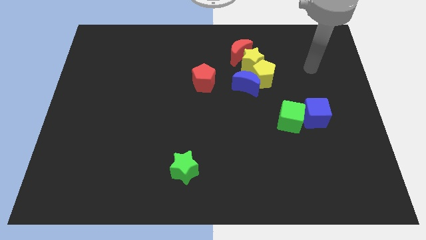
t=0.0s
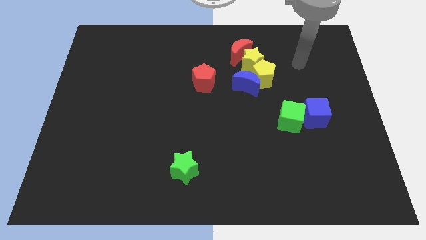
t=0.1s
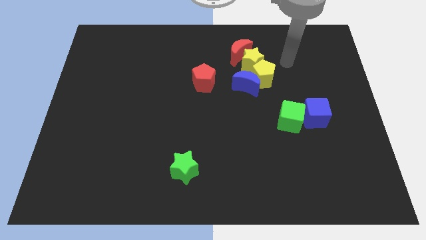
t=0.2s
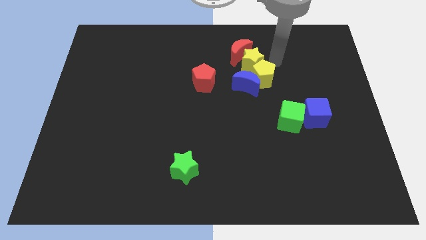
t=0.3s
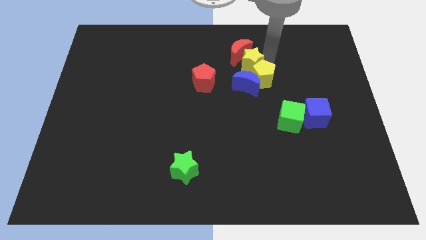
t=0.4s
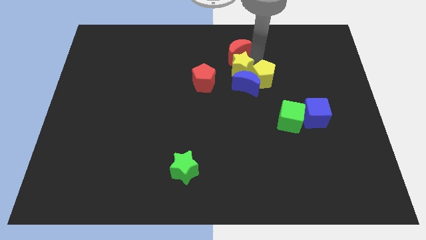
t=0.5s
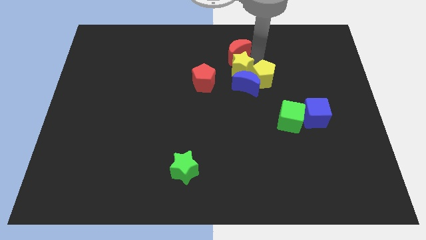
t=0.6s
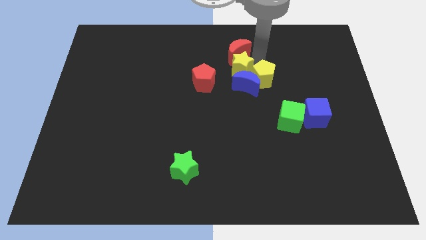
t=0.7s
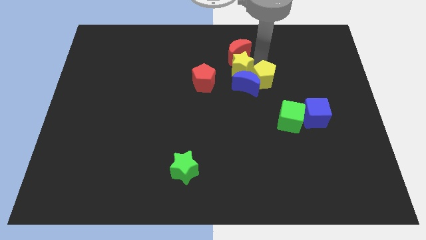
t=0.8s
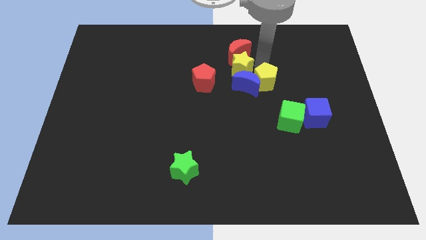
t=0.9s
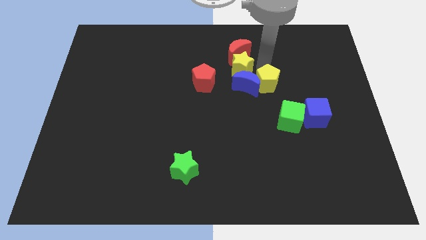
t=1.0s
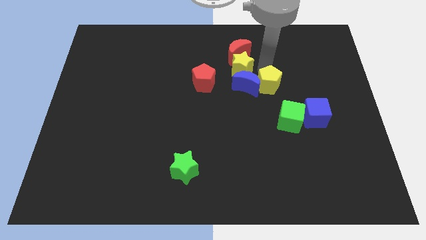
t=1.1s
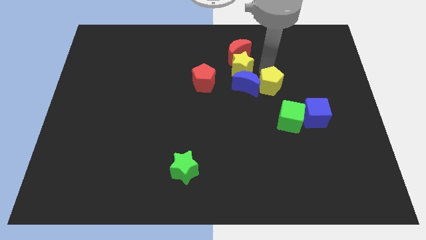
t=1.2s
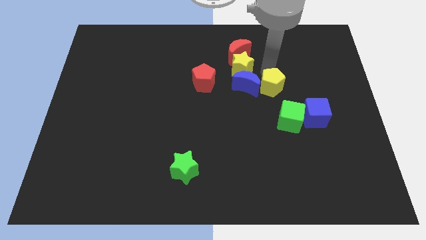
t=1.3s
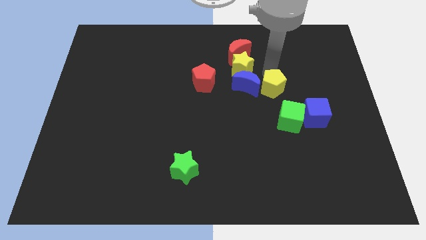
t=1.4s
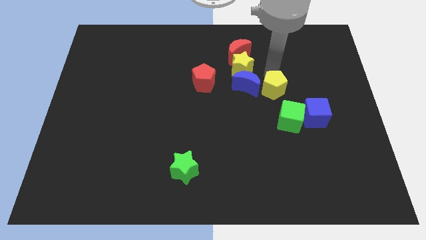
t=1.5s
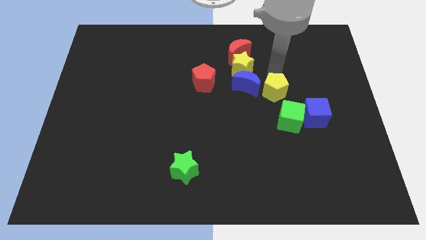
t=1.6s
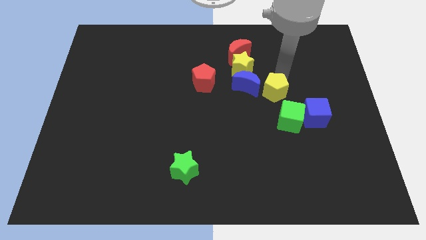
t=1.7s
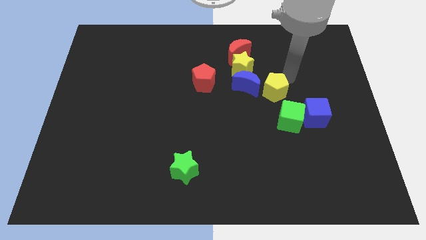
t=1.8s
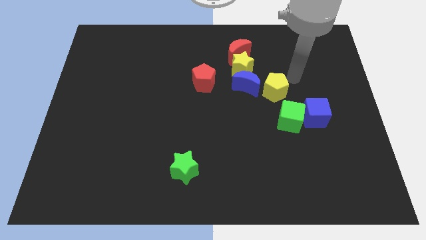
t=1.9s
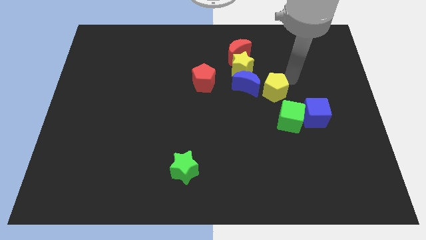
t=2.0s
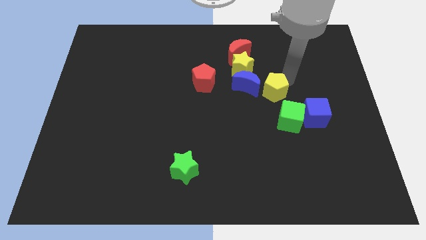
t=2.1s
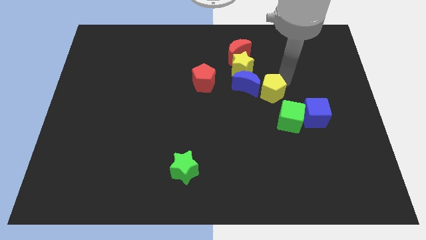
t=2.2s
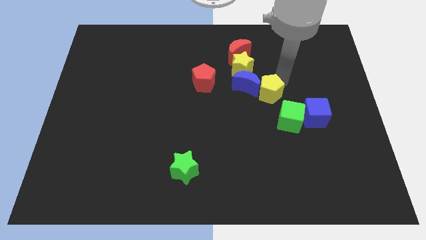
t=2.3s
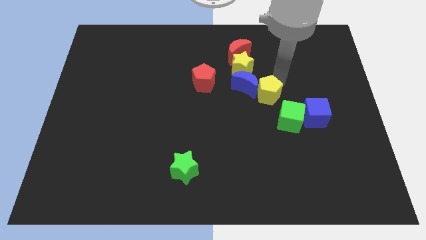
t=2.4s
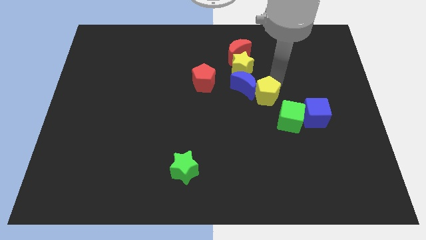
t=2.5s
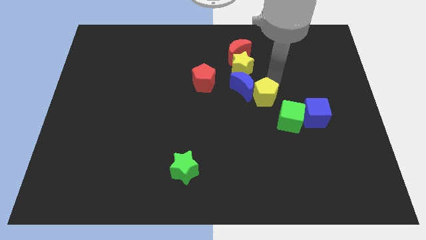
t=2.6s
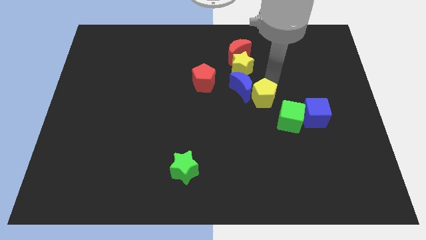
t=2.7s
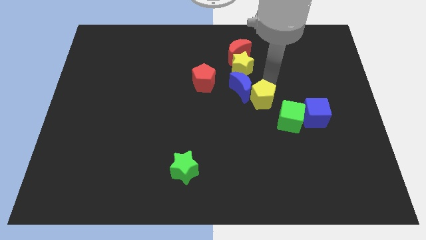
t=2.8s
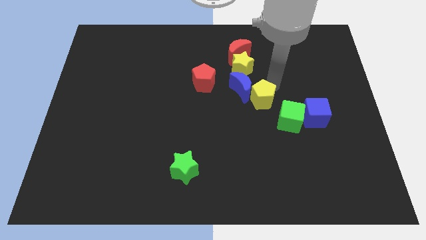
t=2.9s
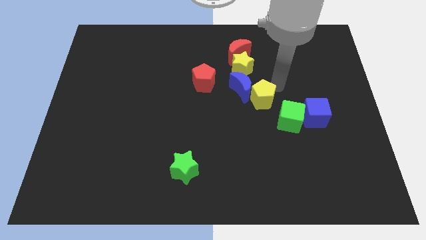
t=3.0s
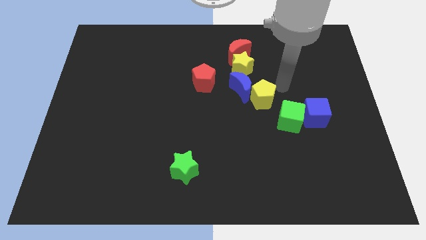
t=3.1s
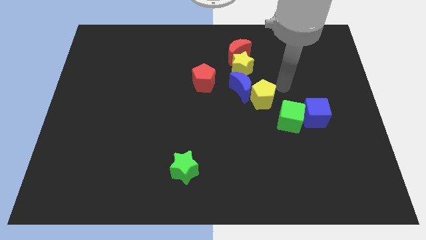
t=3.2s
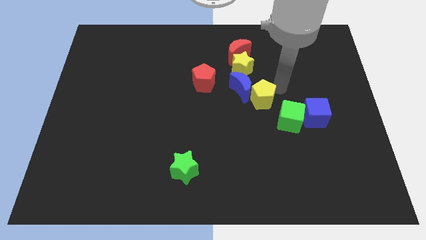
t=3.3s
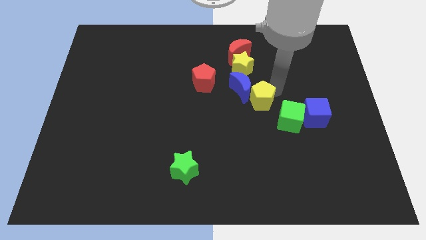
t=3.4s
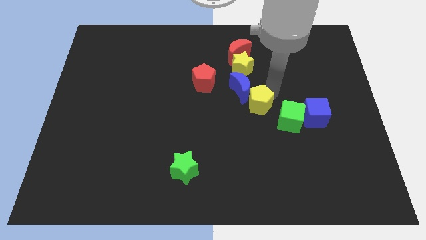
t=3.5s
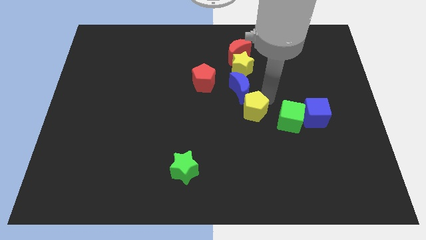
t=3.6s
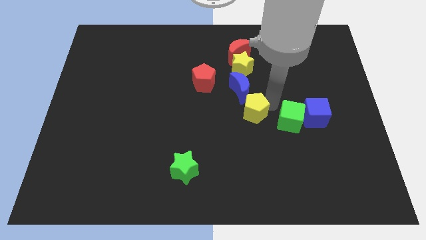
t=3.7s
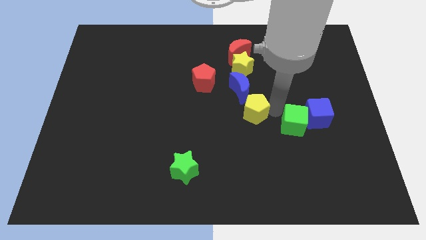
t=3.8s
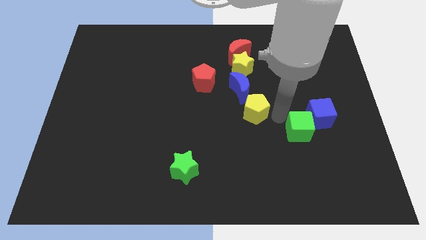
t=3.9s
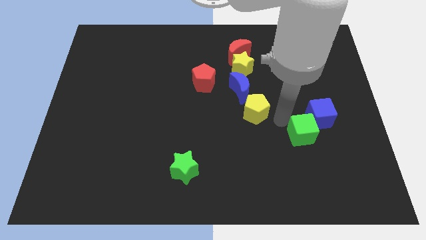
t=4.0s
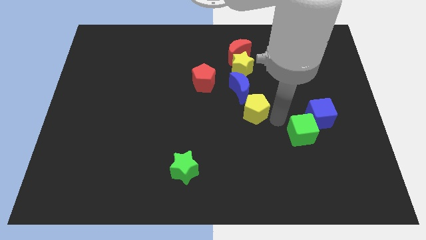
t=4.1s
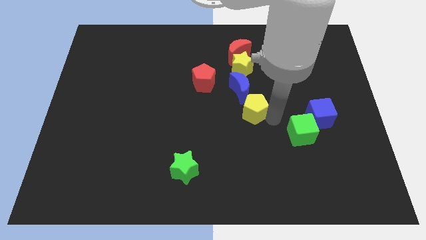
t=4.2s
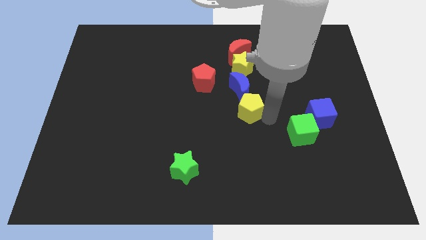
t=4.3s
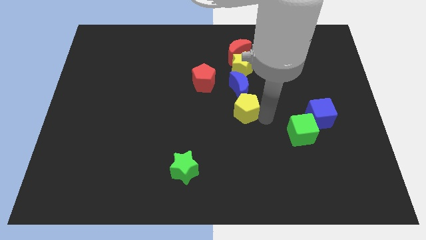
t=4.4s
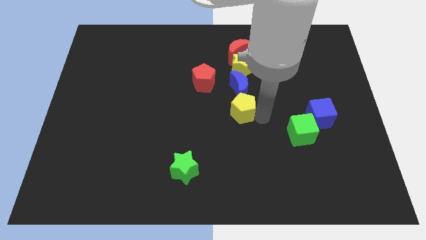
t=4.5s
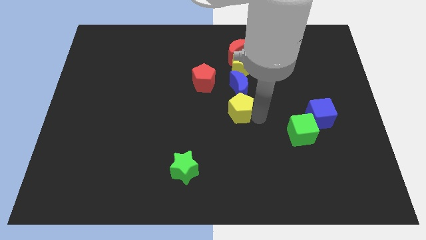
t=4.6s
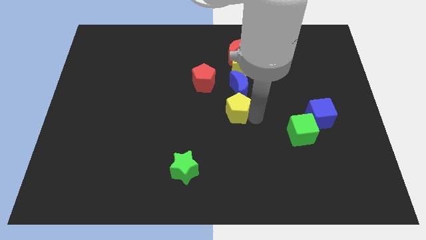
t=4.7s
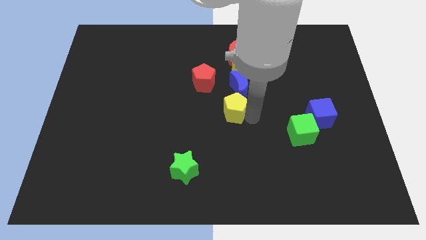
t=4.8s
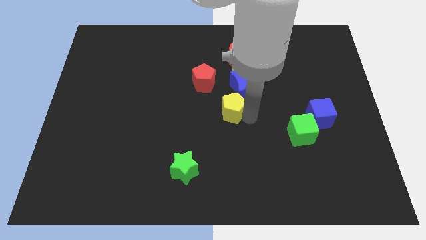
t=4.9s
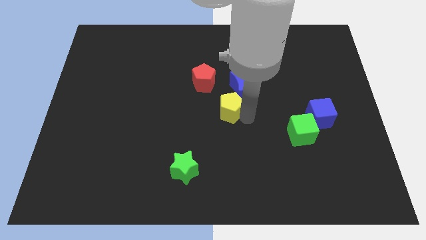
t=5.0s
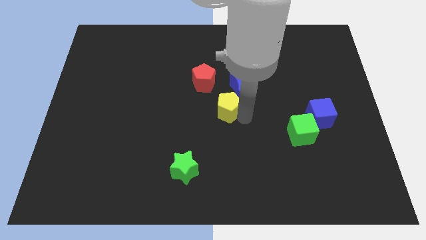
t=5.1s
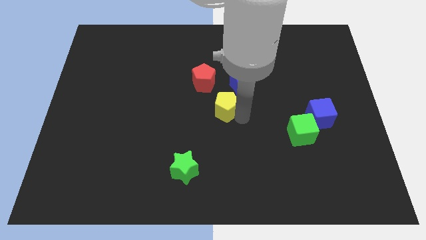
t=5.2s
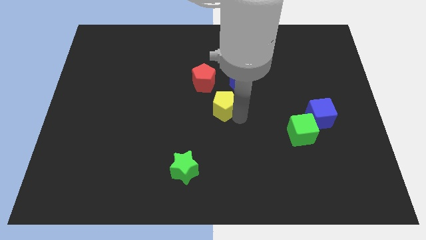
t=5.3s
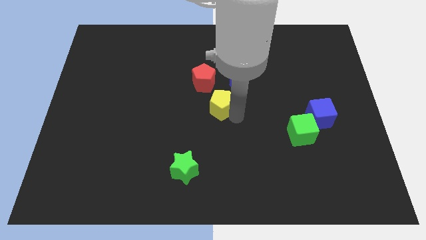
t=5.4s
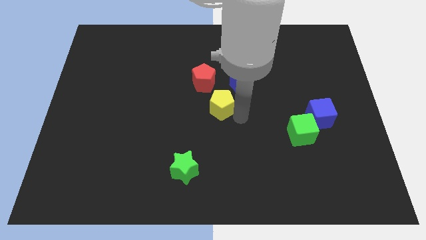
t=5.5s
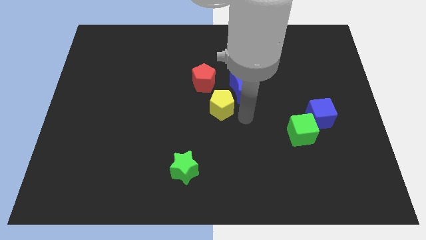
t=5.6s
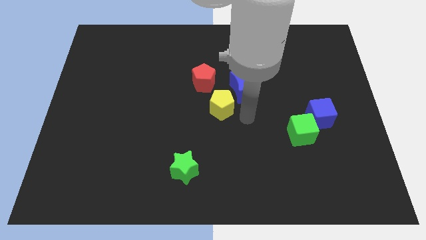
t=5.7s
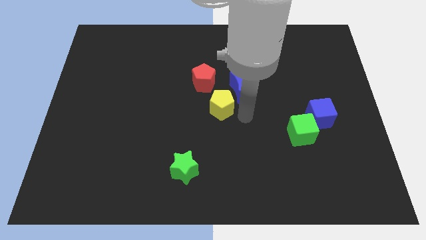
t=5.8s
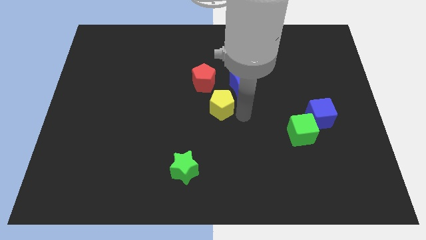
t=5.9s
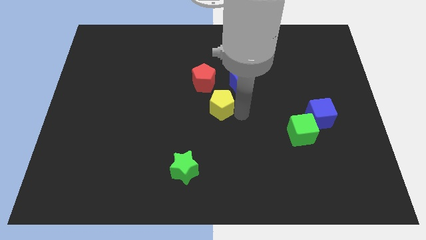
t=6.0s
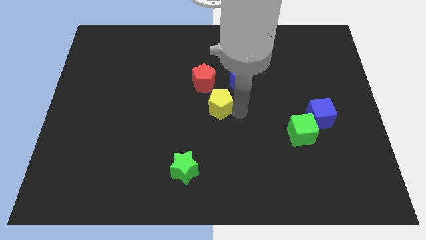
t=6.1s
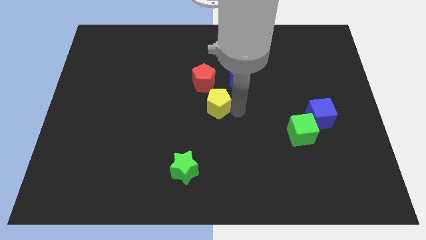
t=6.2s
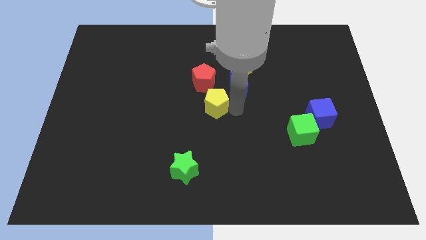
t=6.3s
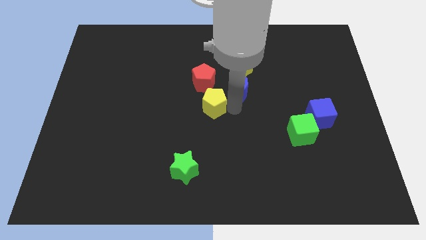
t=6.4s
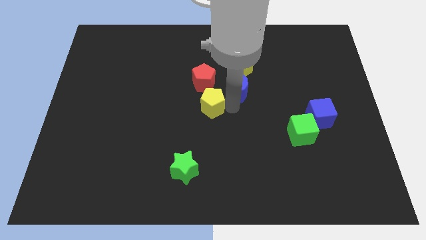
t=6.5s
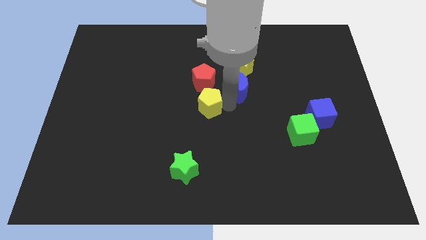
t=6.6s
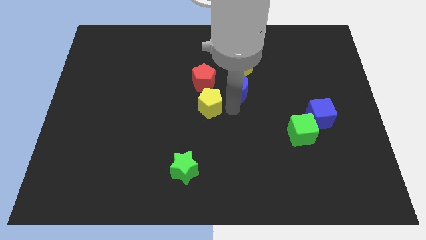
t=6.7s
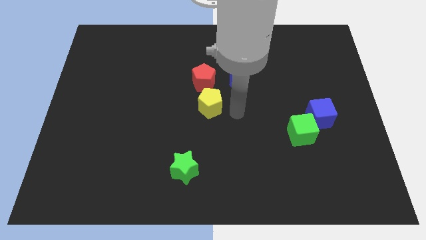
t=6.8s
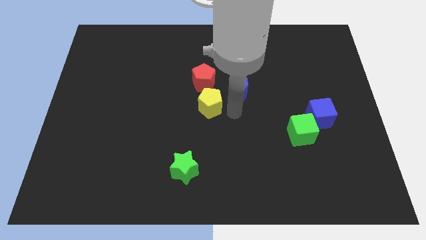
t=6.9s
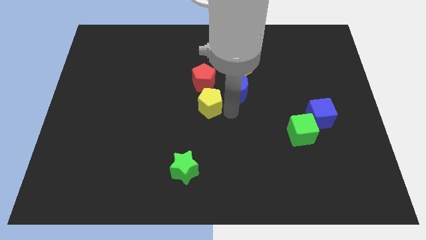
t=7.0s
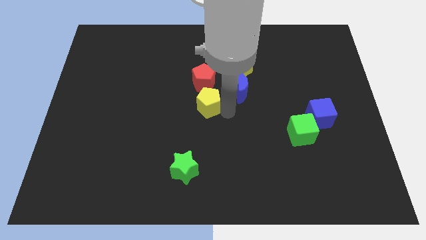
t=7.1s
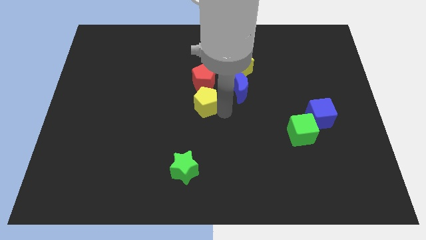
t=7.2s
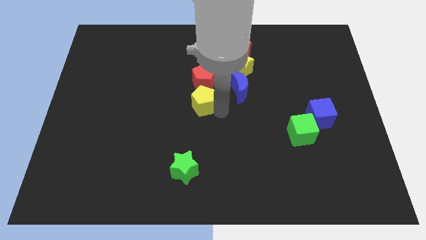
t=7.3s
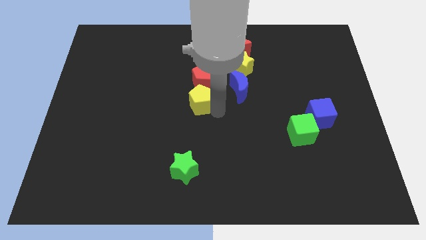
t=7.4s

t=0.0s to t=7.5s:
put the yellow pentagon to the bottom left side of the red pentagon

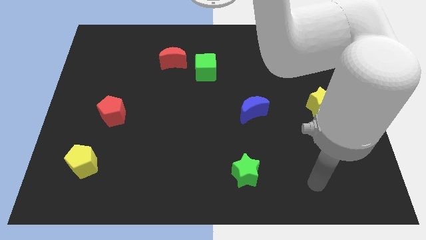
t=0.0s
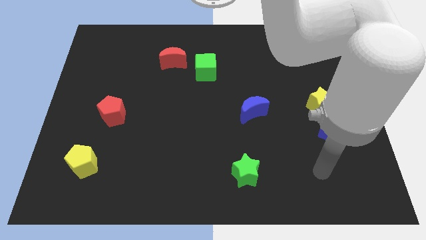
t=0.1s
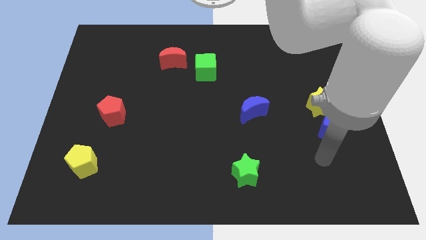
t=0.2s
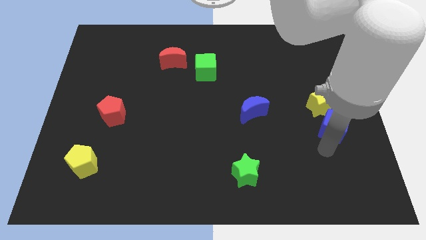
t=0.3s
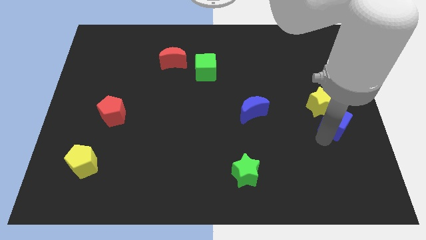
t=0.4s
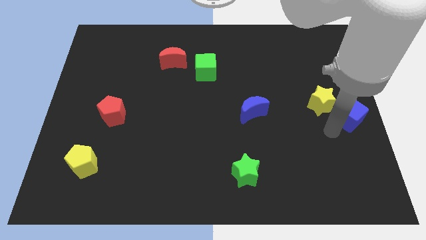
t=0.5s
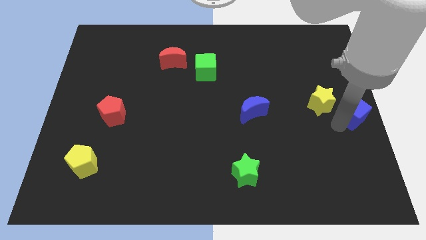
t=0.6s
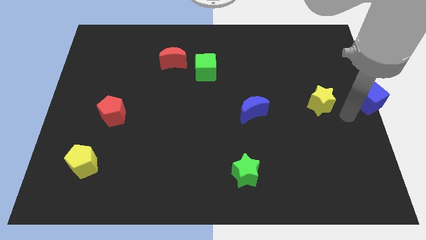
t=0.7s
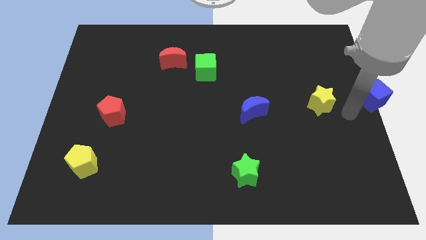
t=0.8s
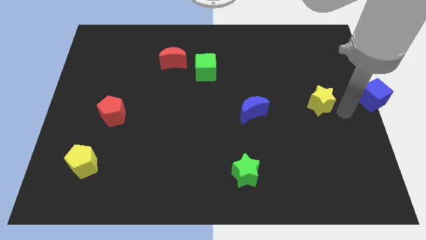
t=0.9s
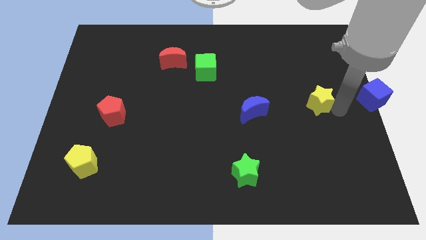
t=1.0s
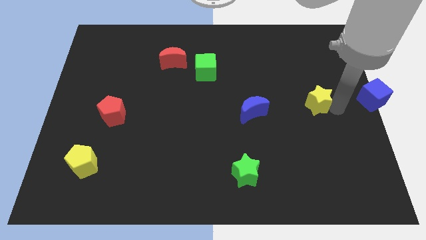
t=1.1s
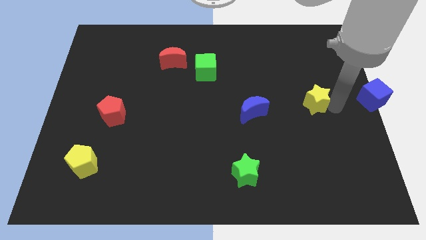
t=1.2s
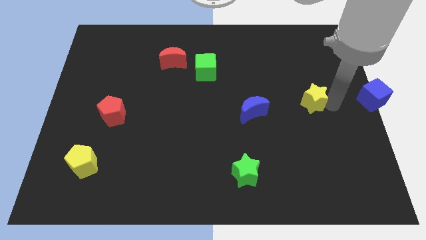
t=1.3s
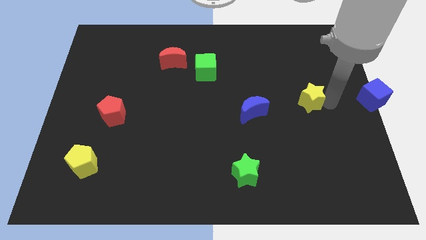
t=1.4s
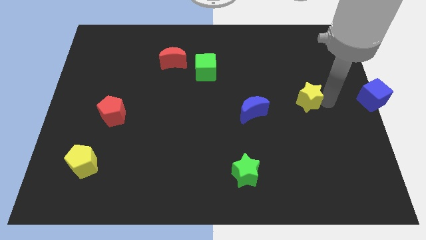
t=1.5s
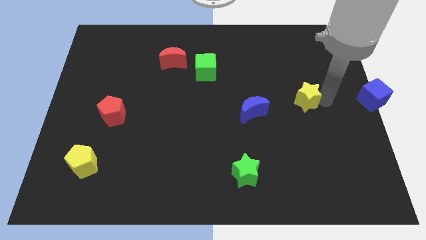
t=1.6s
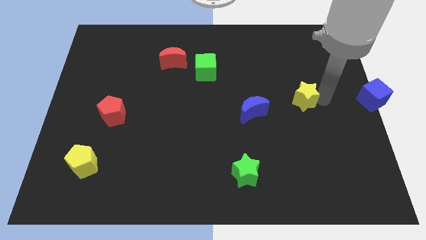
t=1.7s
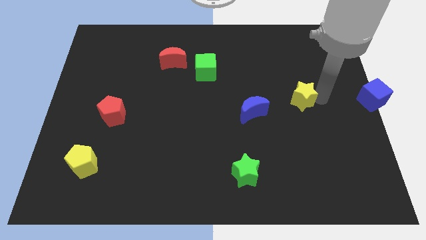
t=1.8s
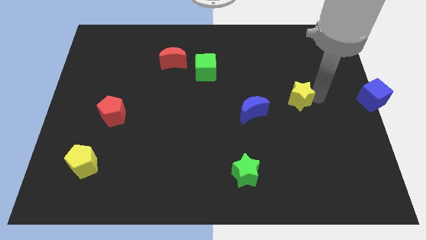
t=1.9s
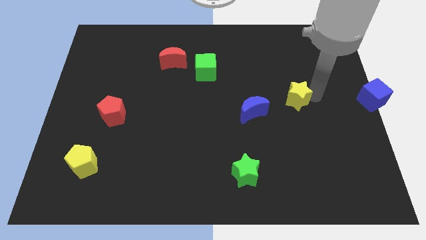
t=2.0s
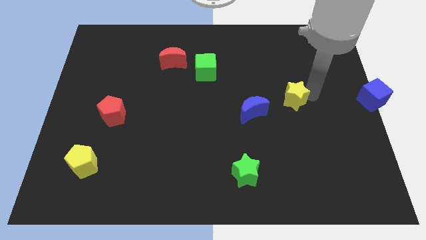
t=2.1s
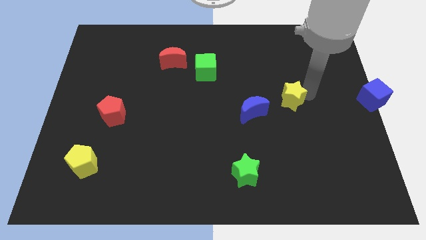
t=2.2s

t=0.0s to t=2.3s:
move the yellow star to the top right side of the blue moon
